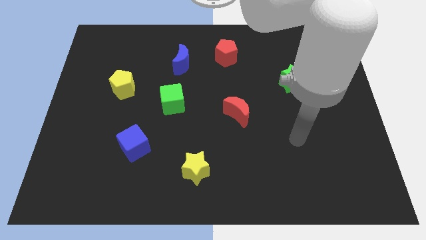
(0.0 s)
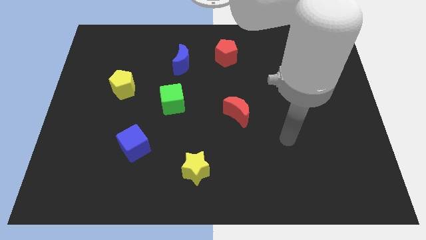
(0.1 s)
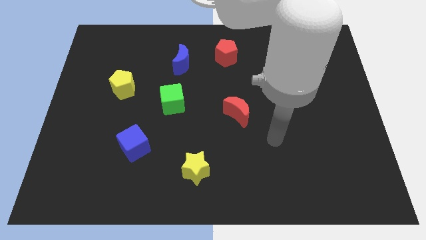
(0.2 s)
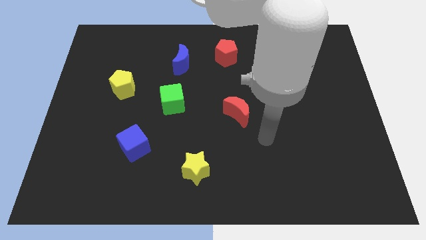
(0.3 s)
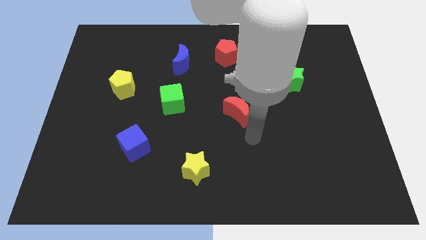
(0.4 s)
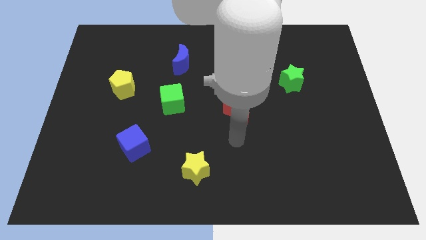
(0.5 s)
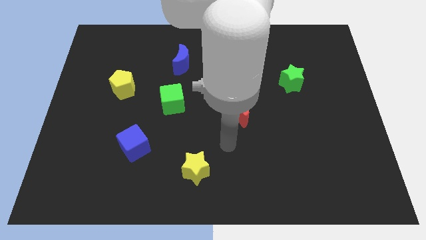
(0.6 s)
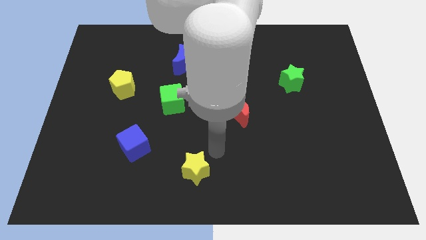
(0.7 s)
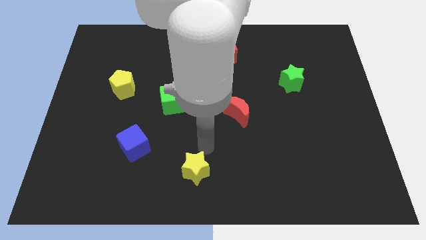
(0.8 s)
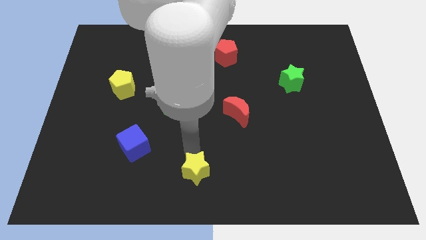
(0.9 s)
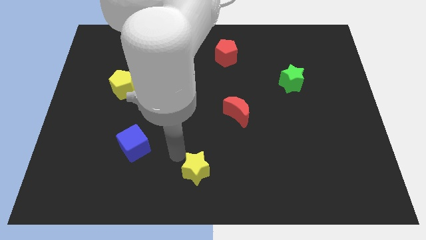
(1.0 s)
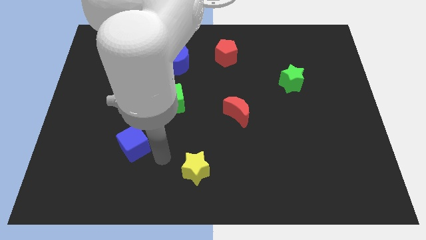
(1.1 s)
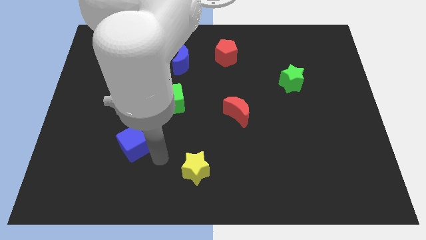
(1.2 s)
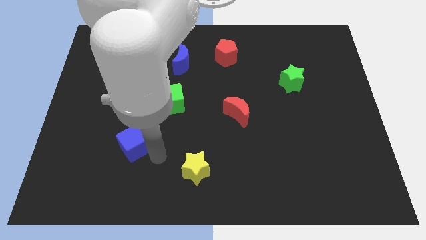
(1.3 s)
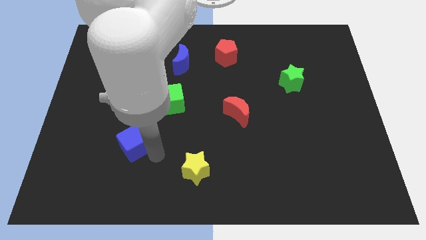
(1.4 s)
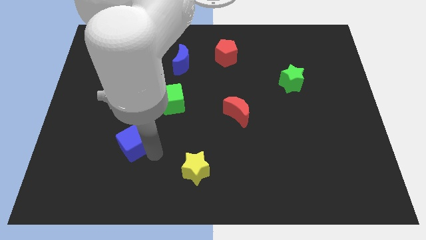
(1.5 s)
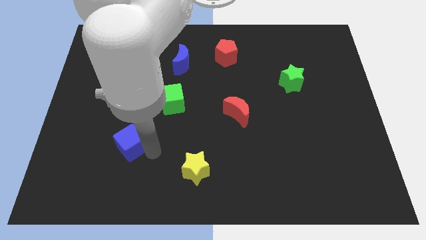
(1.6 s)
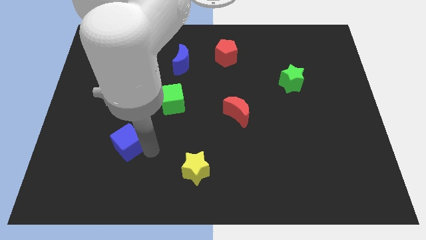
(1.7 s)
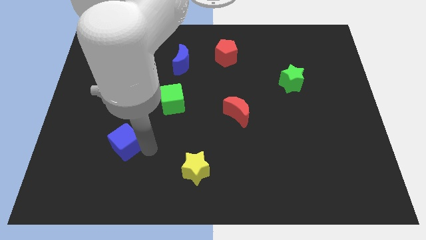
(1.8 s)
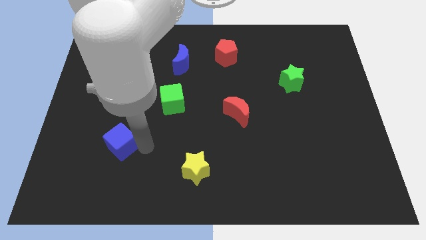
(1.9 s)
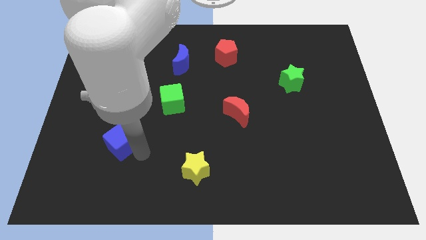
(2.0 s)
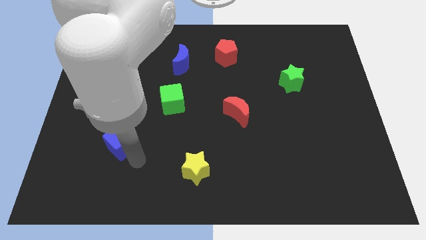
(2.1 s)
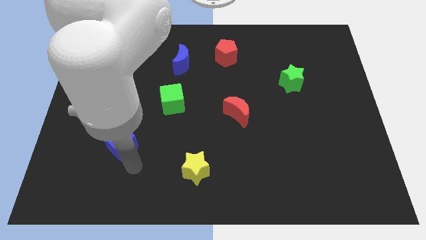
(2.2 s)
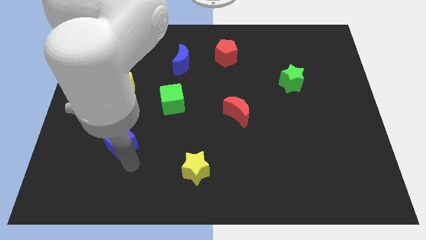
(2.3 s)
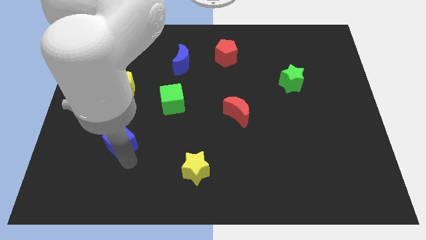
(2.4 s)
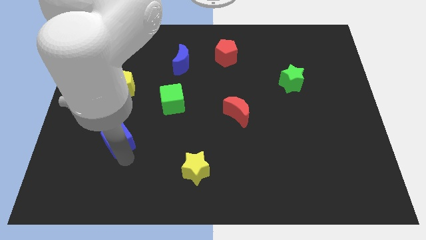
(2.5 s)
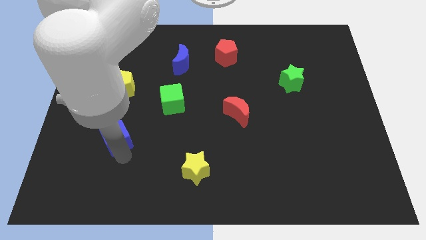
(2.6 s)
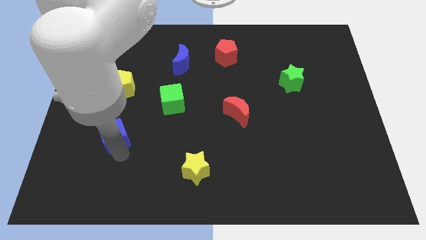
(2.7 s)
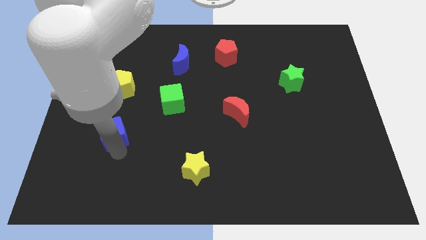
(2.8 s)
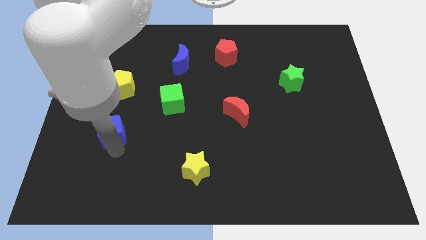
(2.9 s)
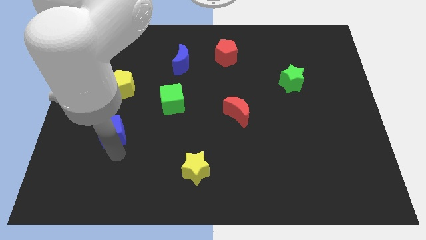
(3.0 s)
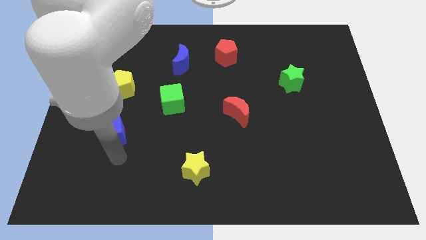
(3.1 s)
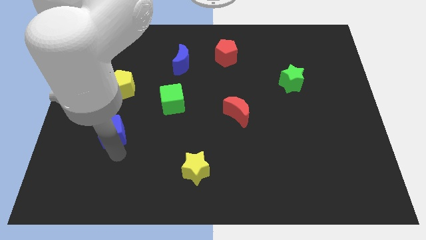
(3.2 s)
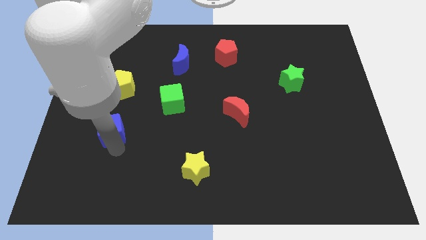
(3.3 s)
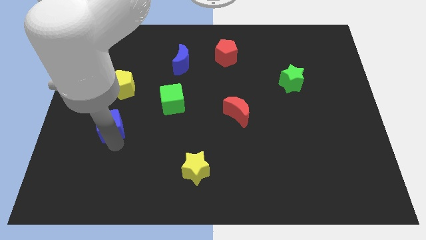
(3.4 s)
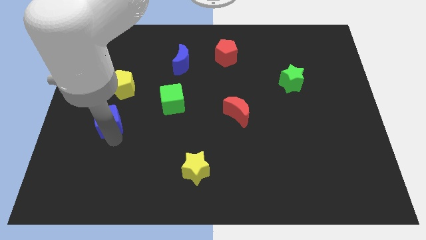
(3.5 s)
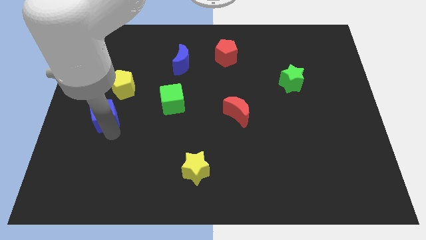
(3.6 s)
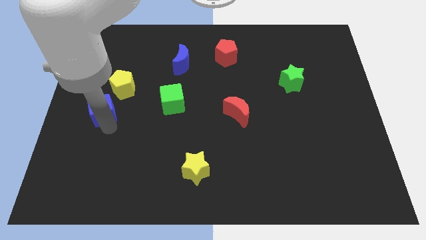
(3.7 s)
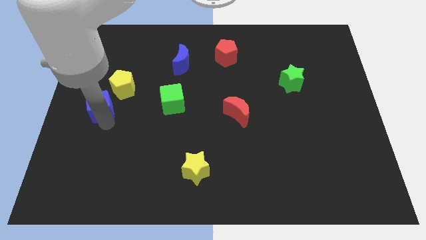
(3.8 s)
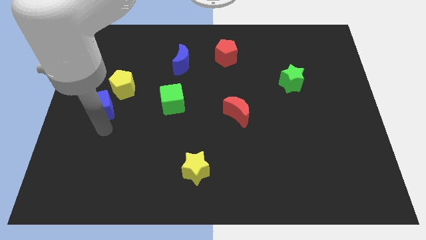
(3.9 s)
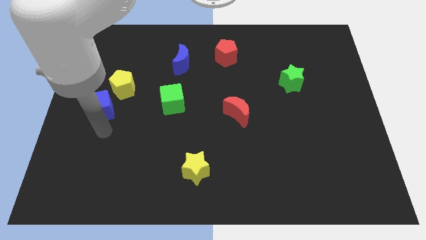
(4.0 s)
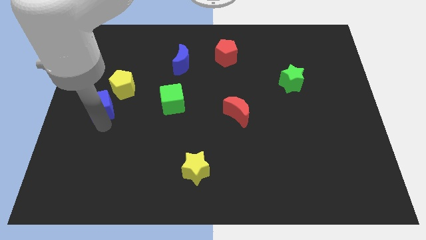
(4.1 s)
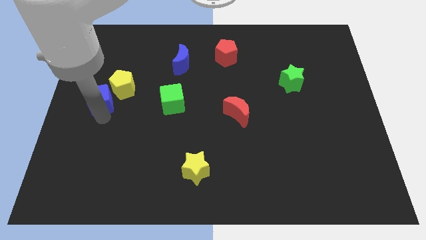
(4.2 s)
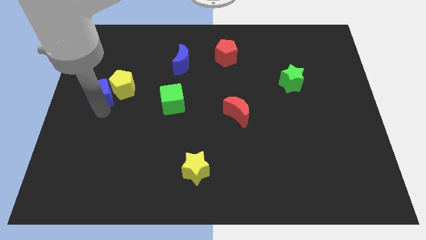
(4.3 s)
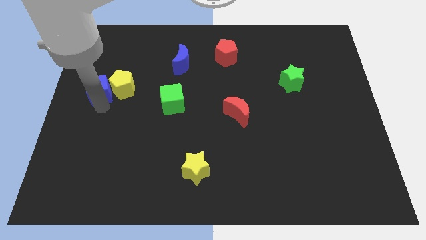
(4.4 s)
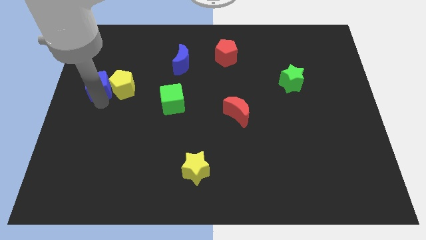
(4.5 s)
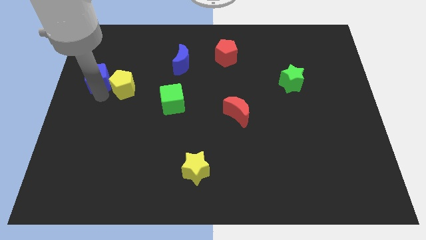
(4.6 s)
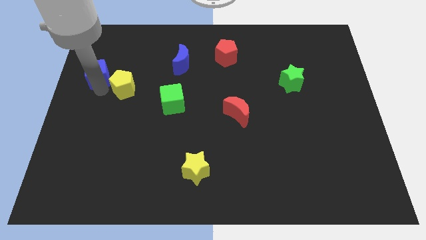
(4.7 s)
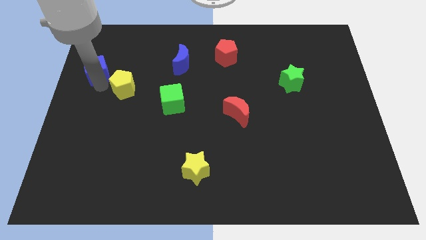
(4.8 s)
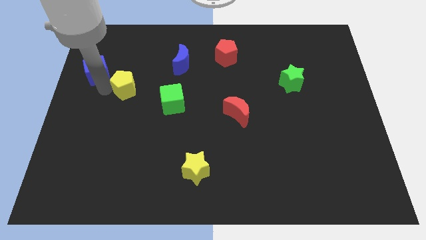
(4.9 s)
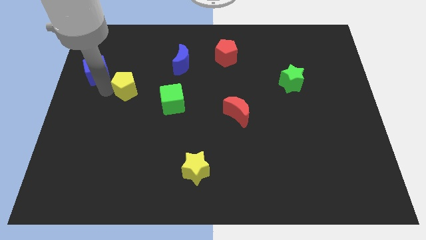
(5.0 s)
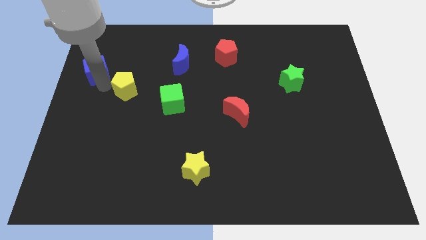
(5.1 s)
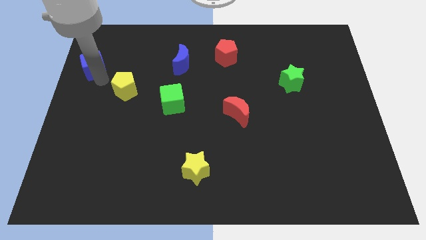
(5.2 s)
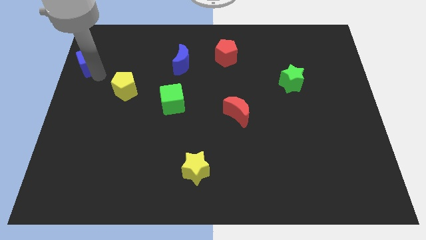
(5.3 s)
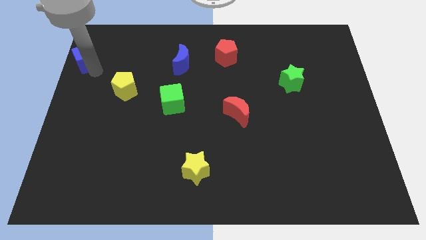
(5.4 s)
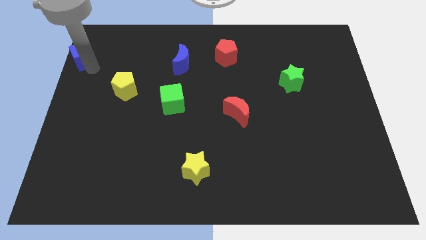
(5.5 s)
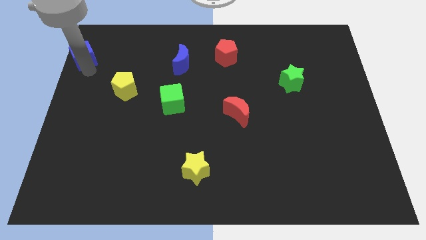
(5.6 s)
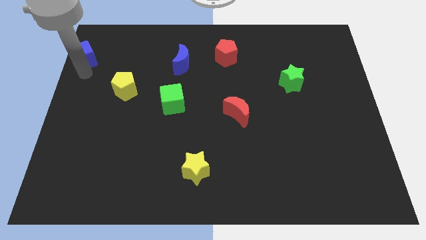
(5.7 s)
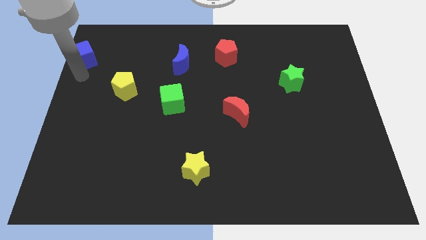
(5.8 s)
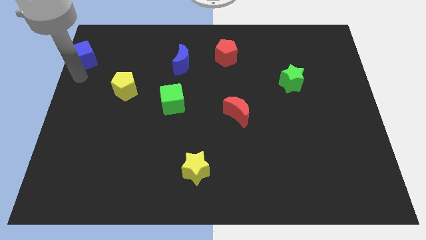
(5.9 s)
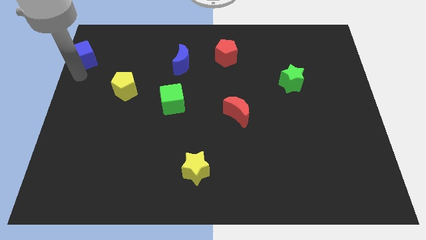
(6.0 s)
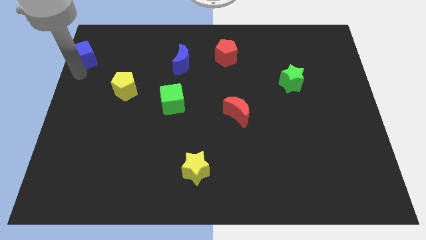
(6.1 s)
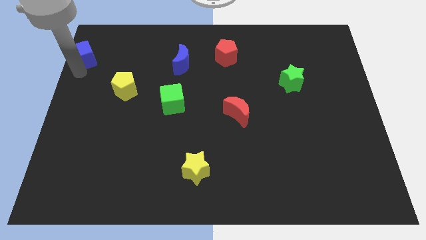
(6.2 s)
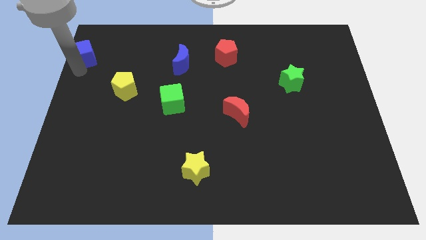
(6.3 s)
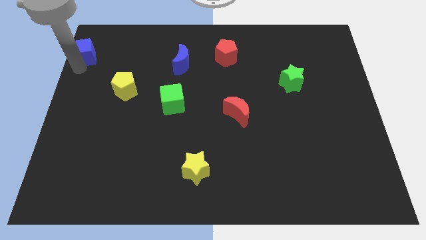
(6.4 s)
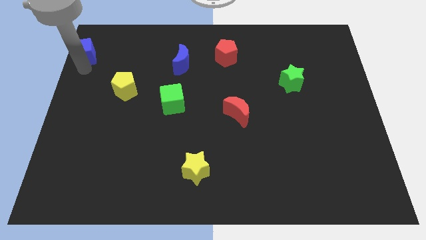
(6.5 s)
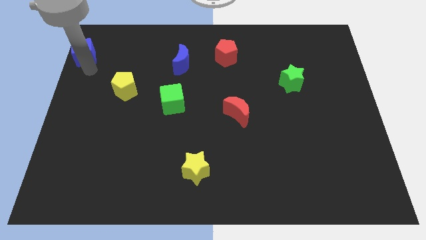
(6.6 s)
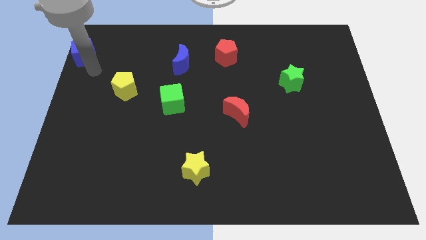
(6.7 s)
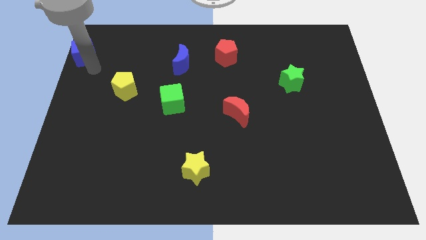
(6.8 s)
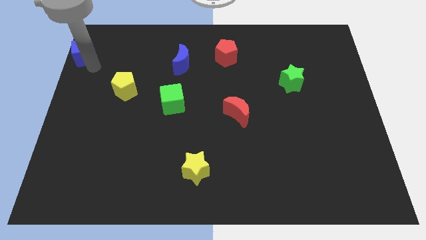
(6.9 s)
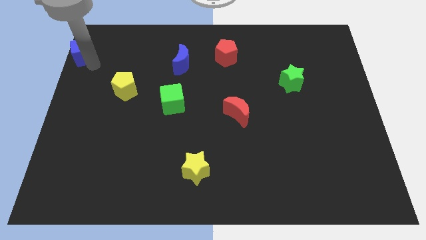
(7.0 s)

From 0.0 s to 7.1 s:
slide the blue cube to the upper left corner

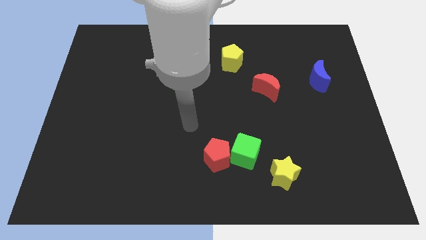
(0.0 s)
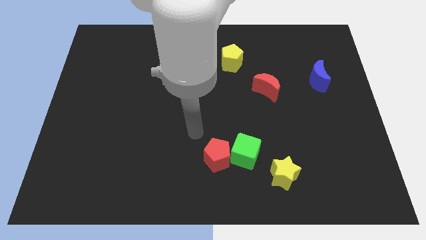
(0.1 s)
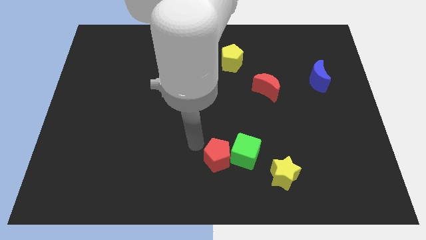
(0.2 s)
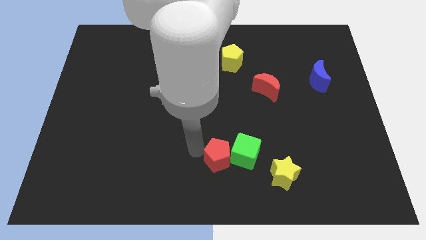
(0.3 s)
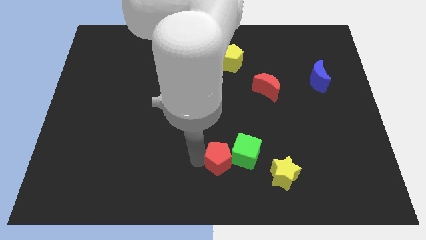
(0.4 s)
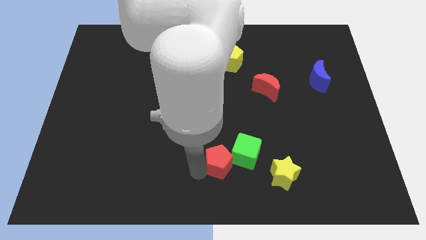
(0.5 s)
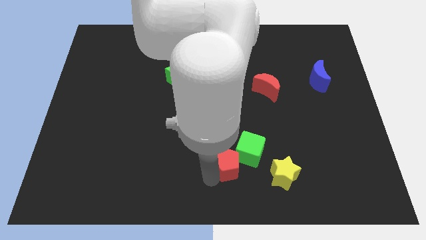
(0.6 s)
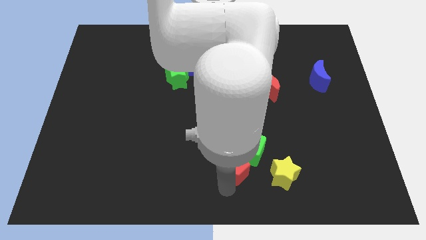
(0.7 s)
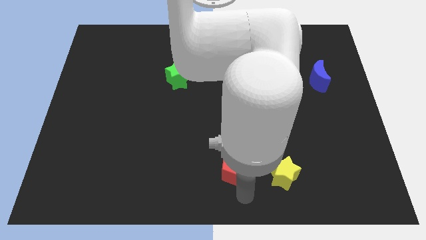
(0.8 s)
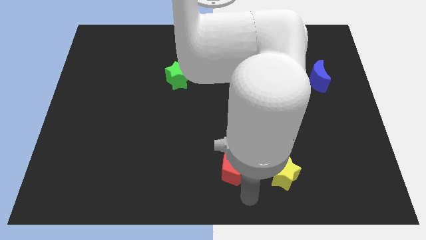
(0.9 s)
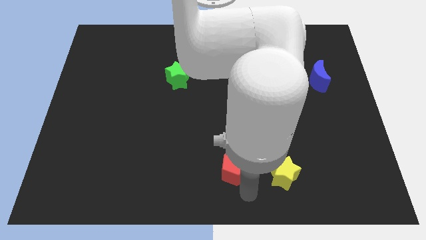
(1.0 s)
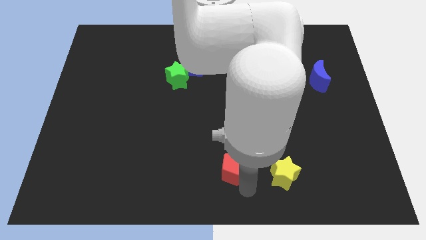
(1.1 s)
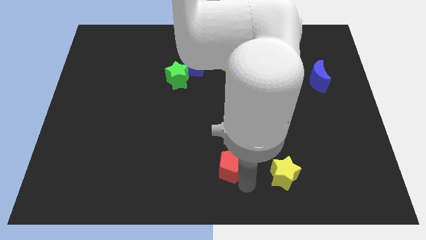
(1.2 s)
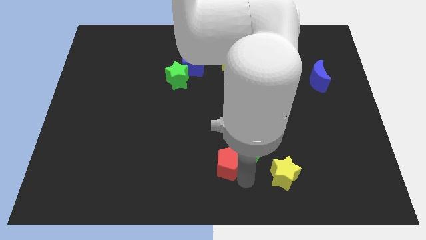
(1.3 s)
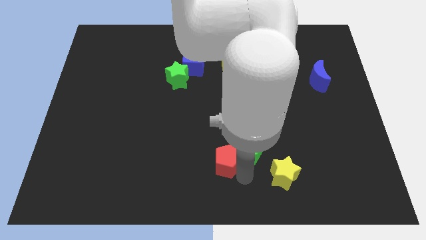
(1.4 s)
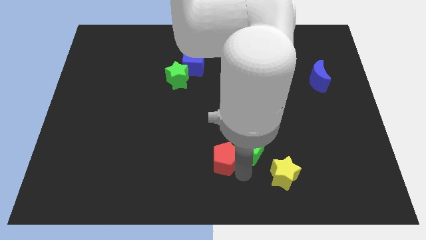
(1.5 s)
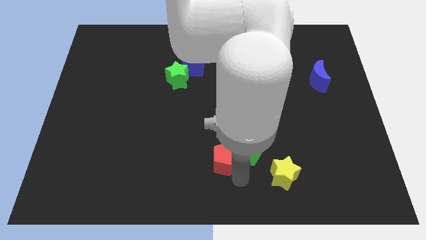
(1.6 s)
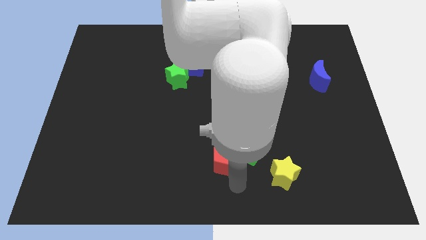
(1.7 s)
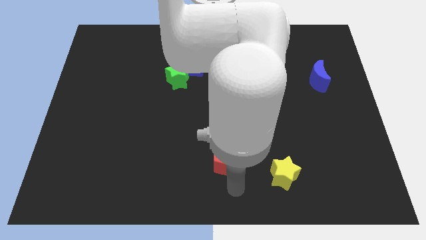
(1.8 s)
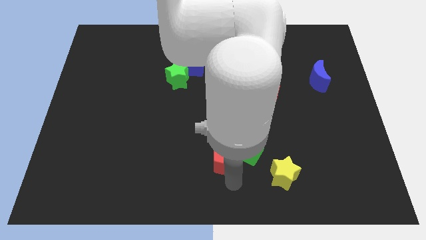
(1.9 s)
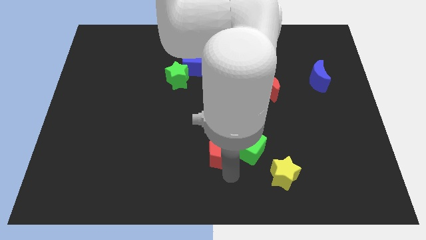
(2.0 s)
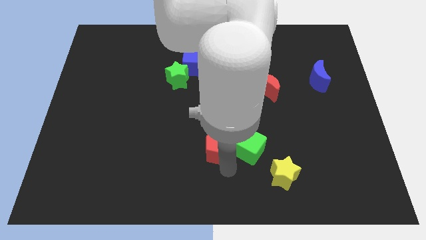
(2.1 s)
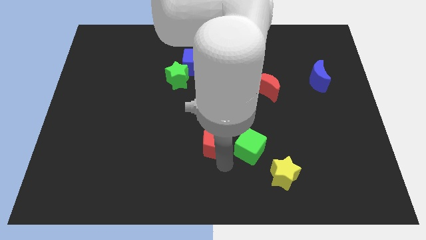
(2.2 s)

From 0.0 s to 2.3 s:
move the red pentagon to the middle
